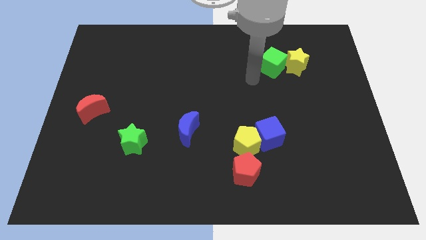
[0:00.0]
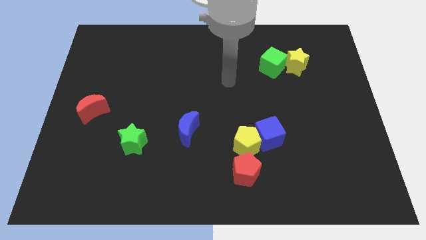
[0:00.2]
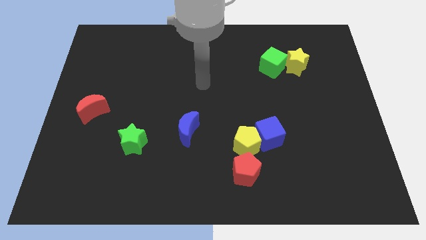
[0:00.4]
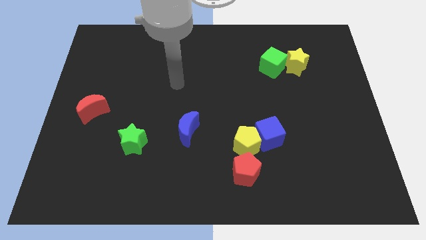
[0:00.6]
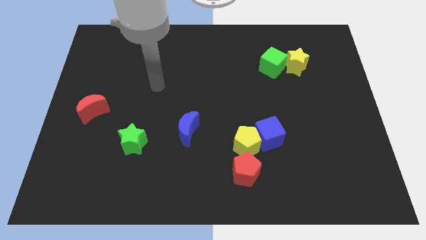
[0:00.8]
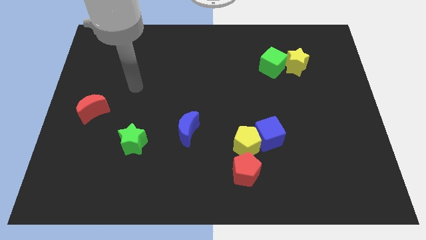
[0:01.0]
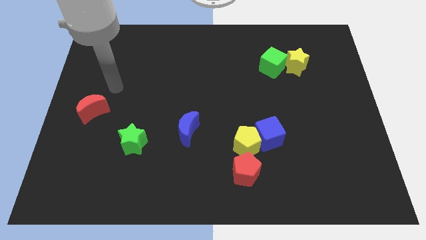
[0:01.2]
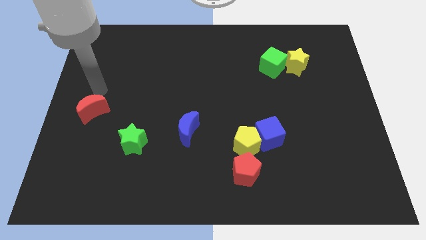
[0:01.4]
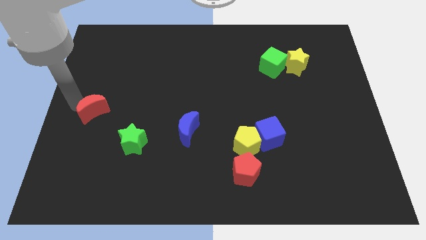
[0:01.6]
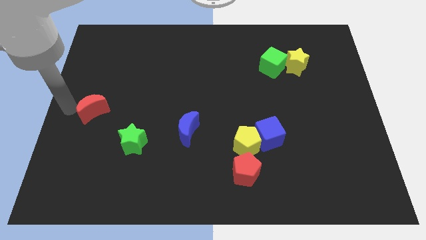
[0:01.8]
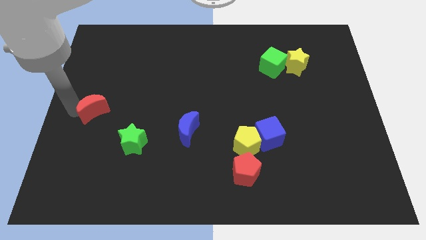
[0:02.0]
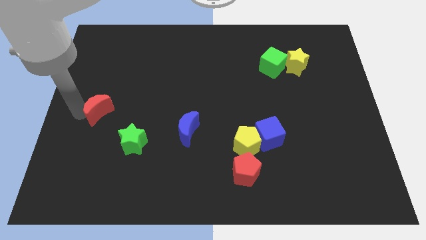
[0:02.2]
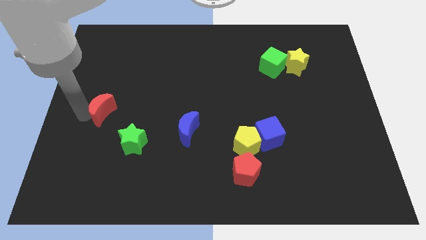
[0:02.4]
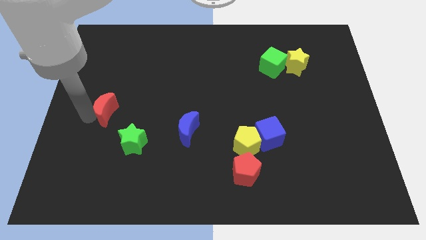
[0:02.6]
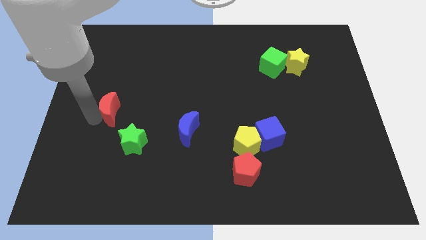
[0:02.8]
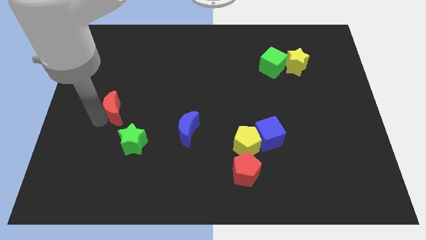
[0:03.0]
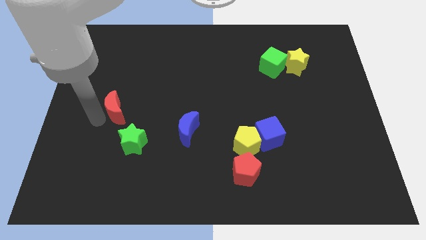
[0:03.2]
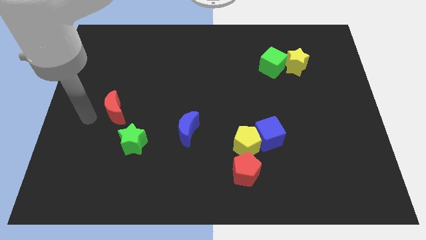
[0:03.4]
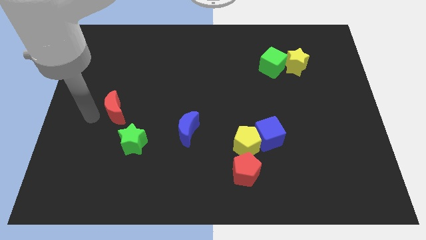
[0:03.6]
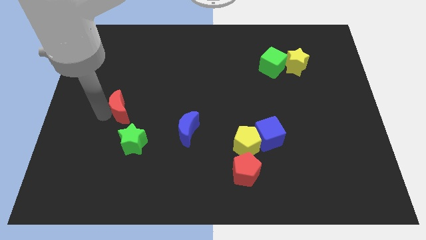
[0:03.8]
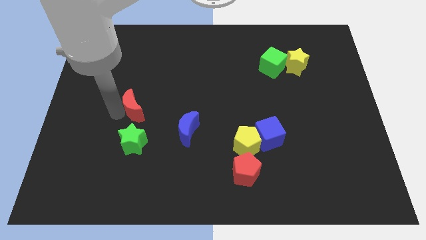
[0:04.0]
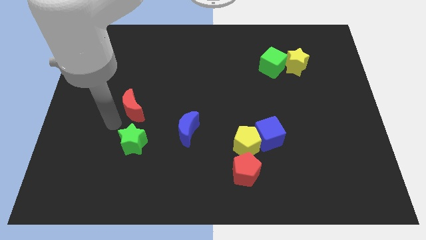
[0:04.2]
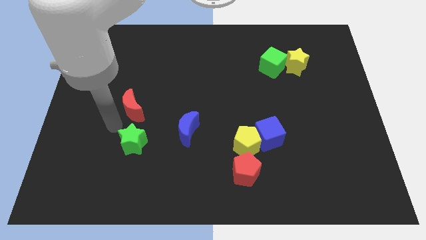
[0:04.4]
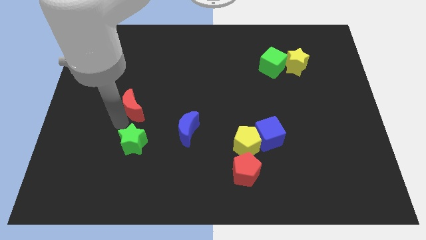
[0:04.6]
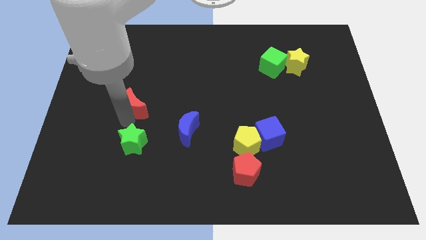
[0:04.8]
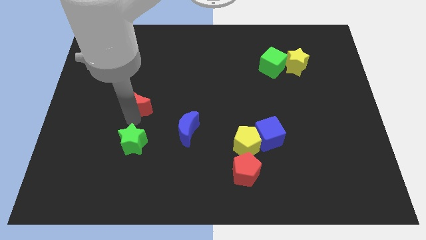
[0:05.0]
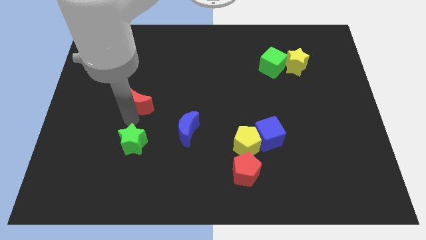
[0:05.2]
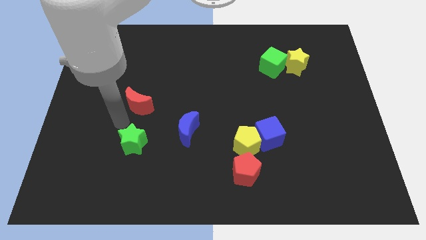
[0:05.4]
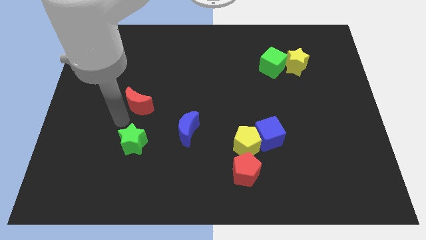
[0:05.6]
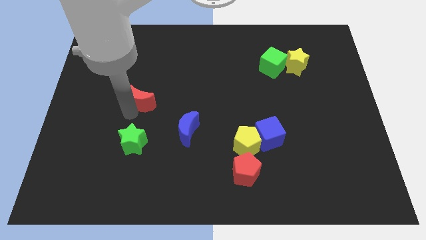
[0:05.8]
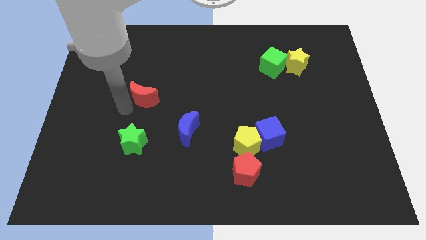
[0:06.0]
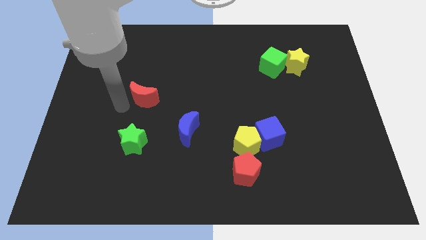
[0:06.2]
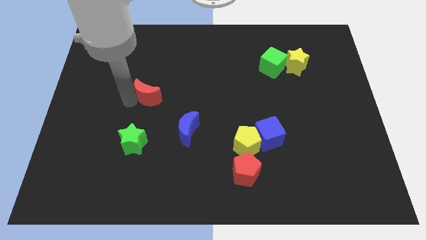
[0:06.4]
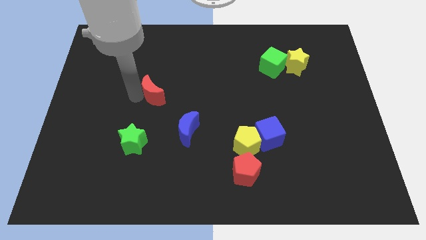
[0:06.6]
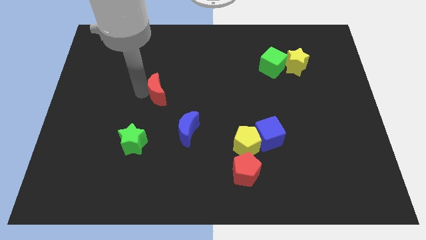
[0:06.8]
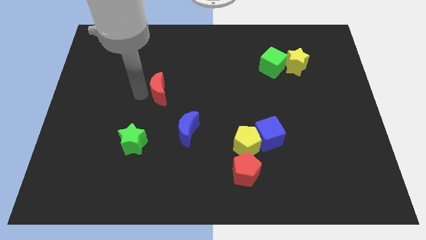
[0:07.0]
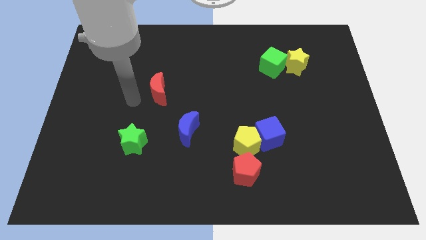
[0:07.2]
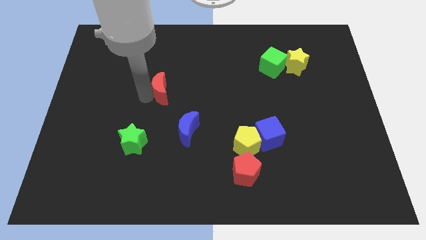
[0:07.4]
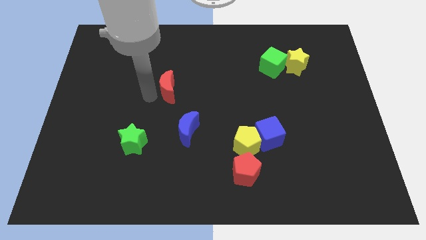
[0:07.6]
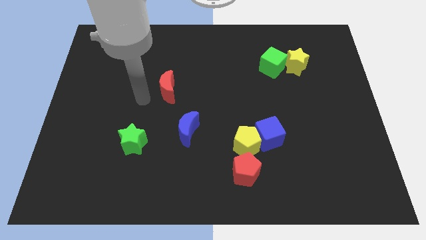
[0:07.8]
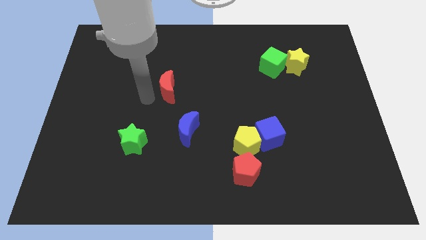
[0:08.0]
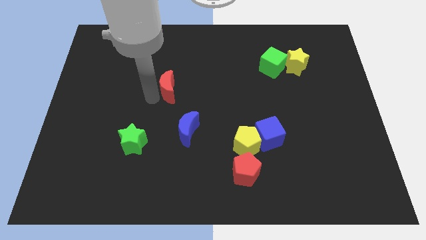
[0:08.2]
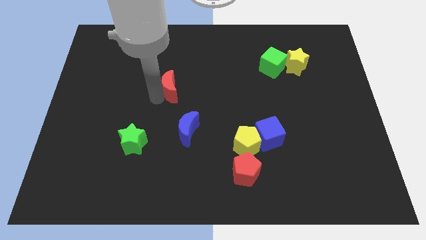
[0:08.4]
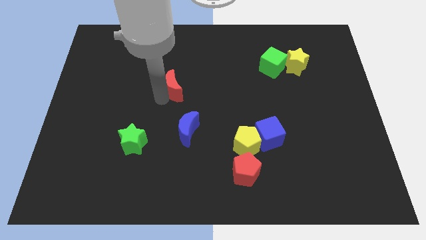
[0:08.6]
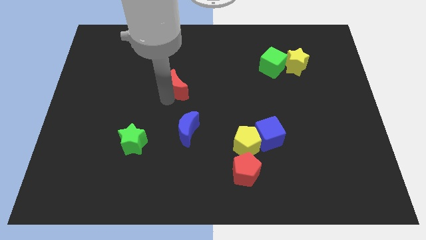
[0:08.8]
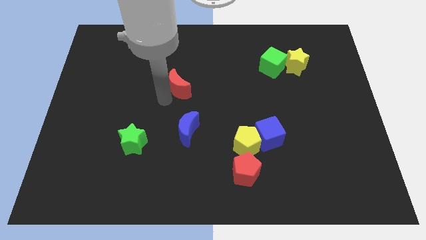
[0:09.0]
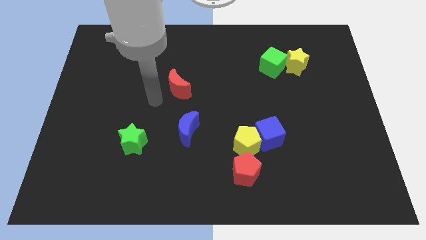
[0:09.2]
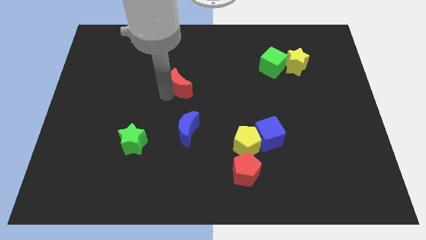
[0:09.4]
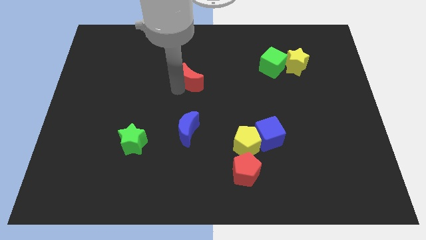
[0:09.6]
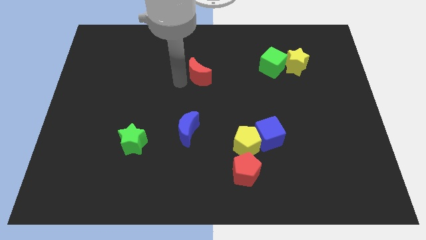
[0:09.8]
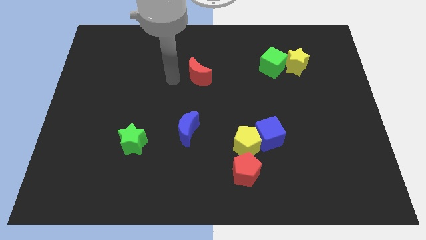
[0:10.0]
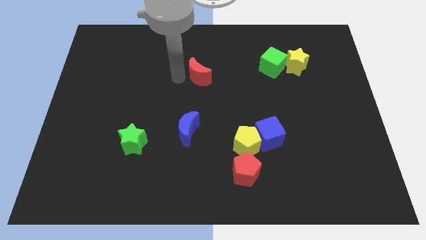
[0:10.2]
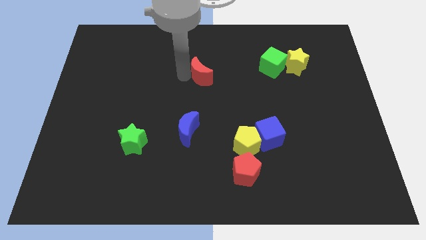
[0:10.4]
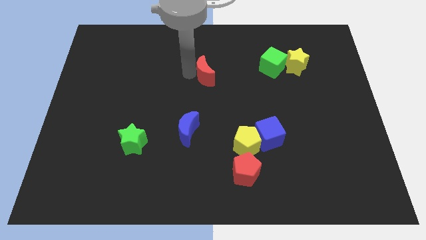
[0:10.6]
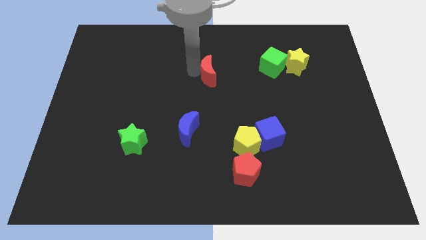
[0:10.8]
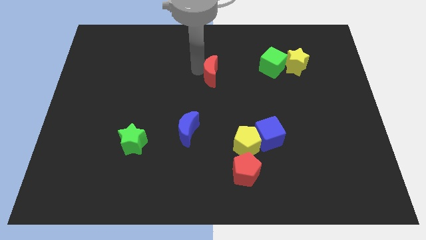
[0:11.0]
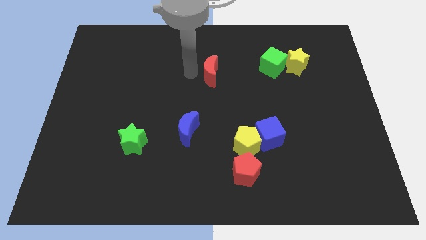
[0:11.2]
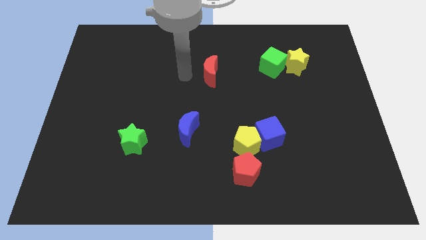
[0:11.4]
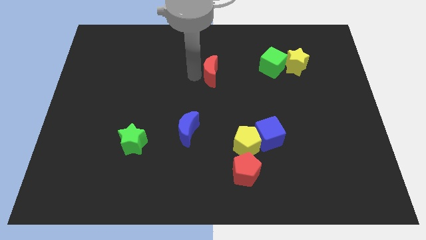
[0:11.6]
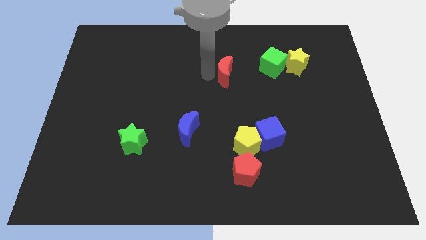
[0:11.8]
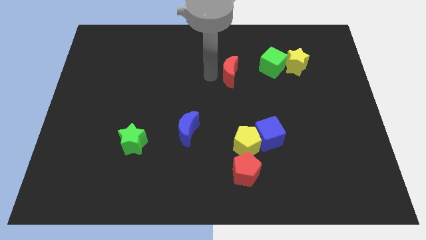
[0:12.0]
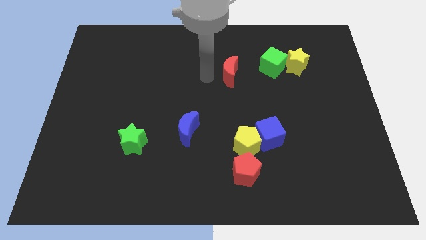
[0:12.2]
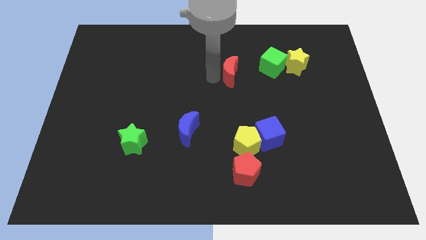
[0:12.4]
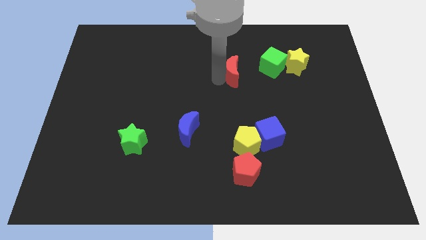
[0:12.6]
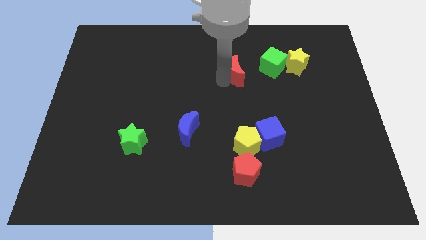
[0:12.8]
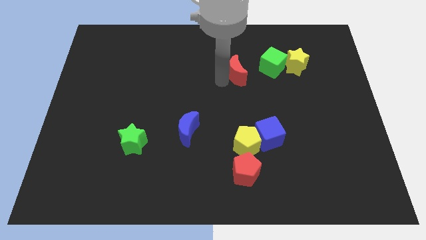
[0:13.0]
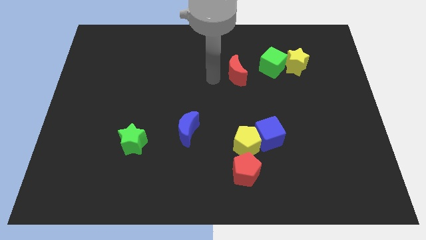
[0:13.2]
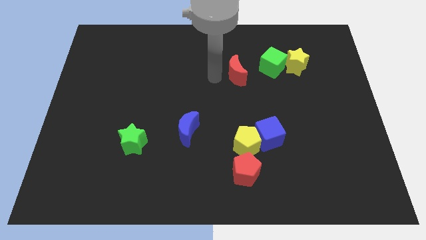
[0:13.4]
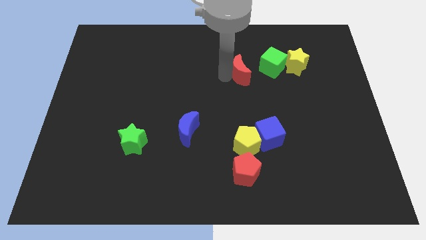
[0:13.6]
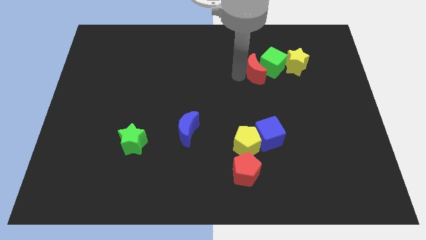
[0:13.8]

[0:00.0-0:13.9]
put the red moon next to the green cube
